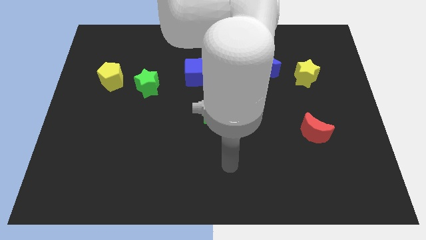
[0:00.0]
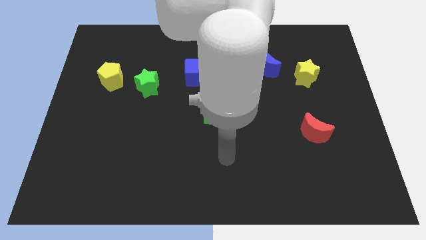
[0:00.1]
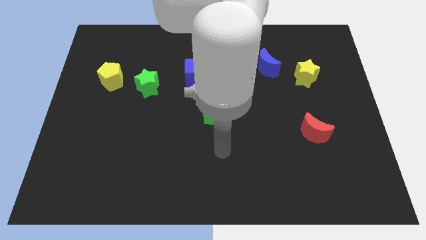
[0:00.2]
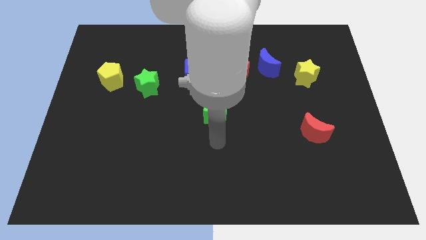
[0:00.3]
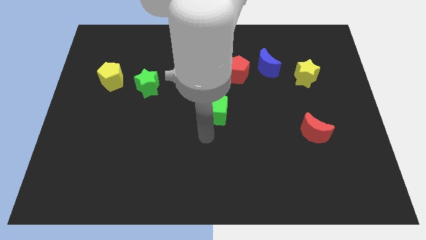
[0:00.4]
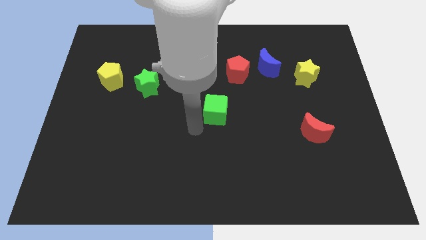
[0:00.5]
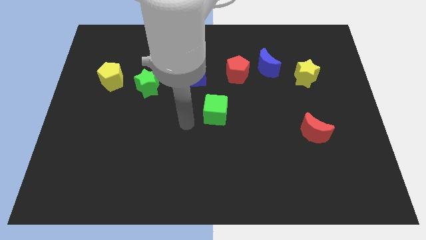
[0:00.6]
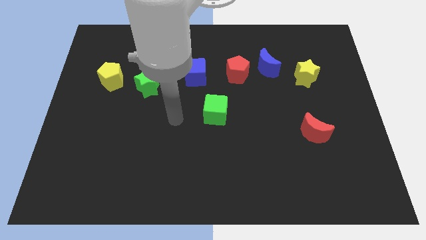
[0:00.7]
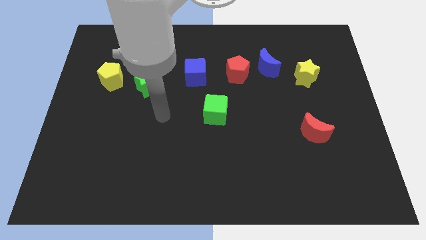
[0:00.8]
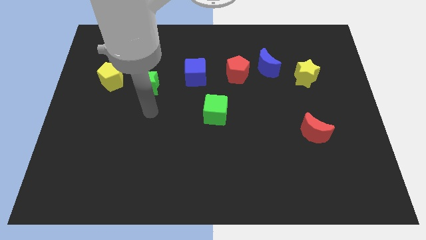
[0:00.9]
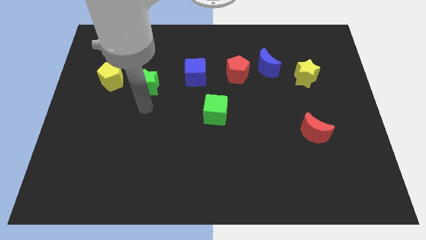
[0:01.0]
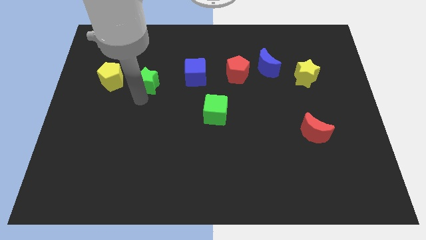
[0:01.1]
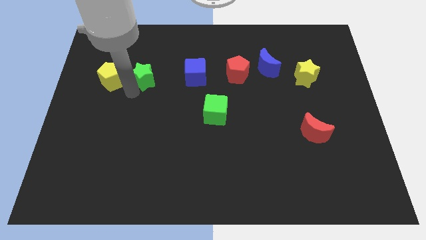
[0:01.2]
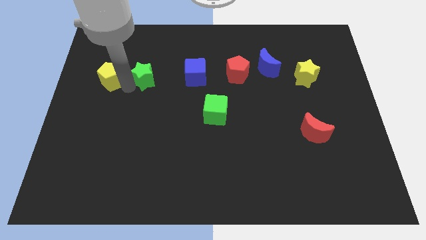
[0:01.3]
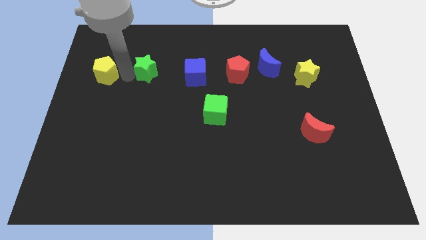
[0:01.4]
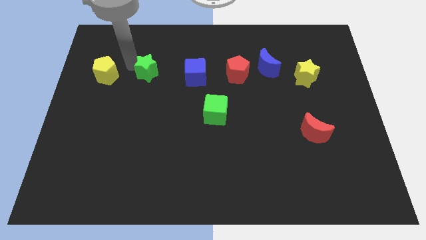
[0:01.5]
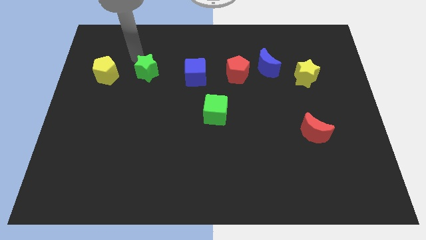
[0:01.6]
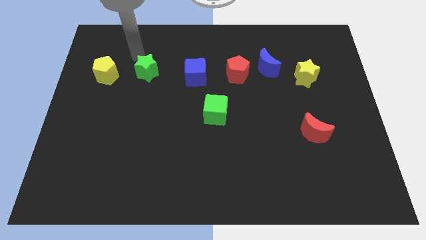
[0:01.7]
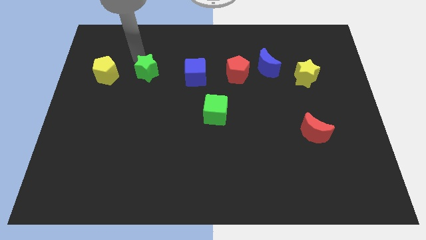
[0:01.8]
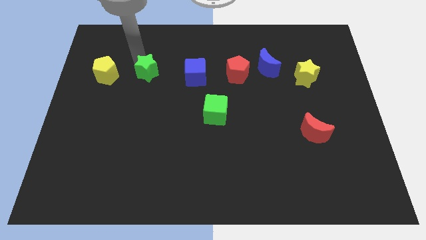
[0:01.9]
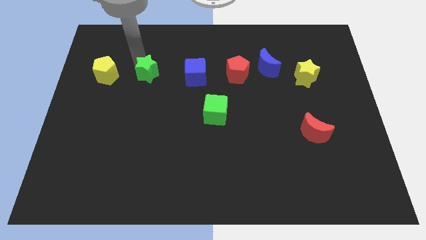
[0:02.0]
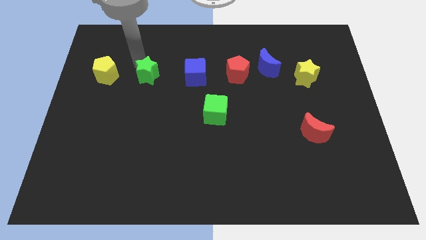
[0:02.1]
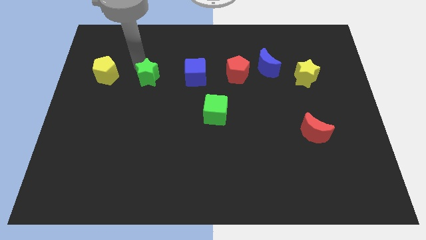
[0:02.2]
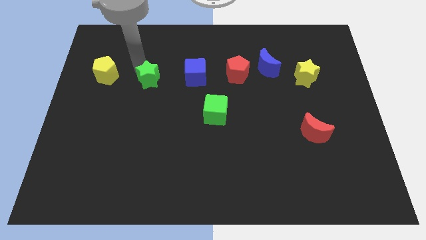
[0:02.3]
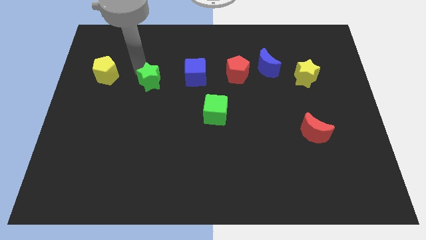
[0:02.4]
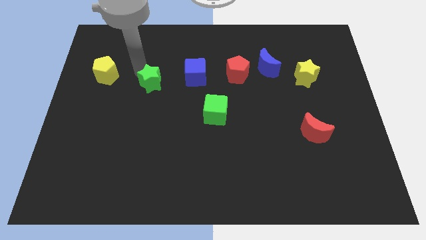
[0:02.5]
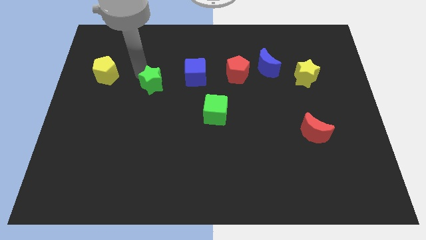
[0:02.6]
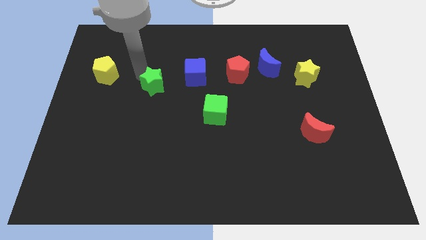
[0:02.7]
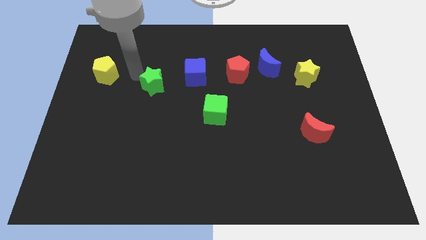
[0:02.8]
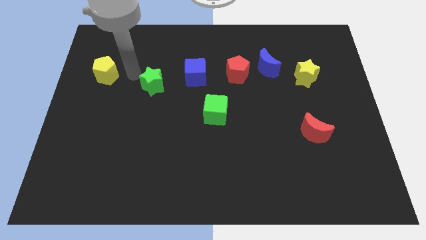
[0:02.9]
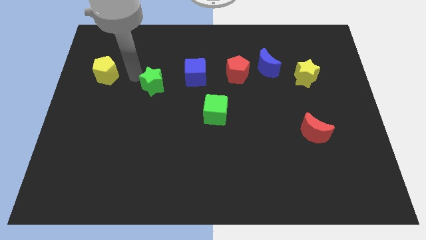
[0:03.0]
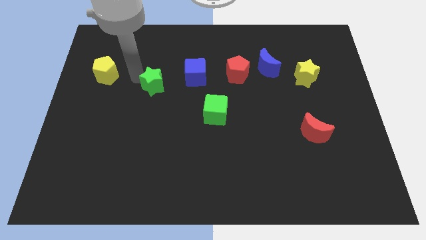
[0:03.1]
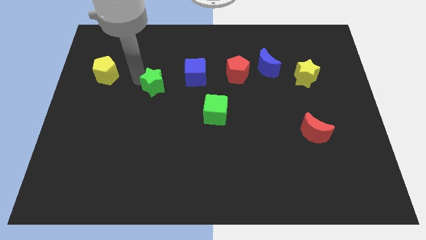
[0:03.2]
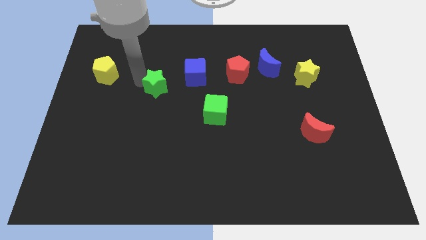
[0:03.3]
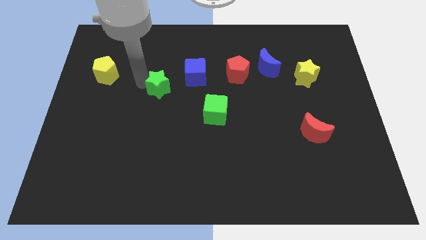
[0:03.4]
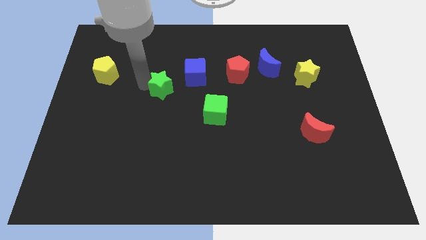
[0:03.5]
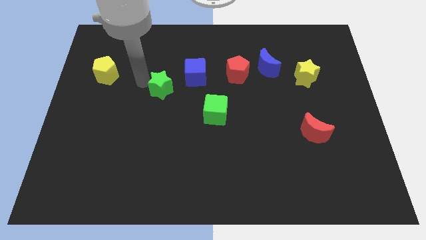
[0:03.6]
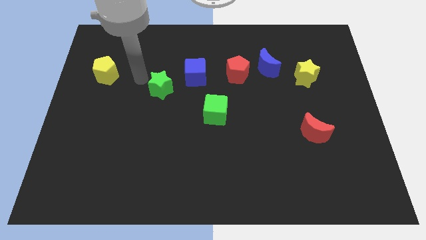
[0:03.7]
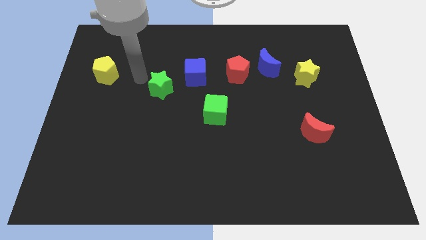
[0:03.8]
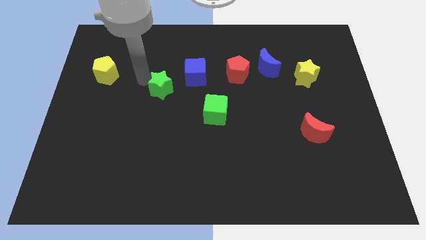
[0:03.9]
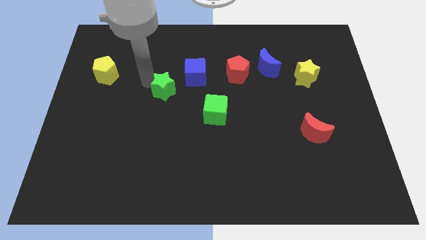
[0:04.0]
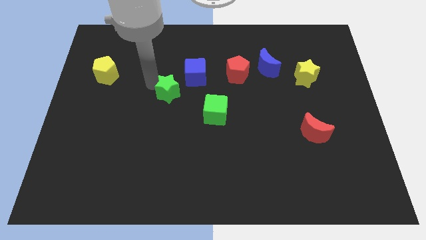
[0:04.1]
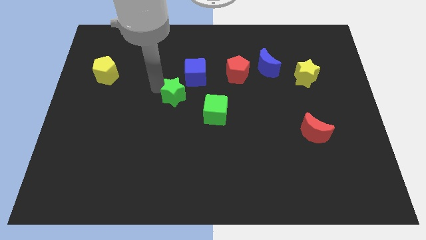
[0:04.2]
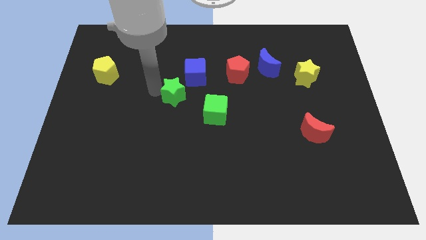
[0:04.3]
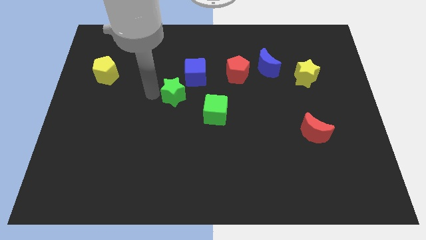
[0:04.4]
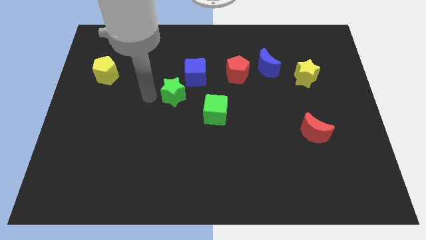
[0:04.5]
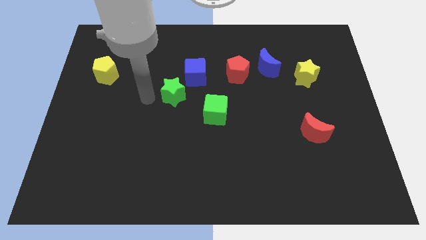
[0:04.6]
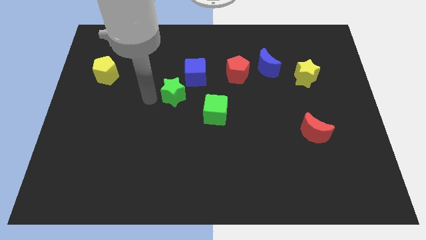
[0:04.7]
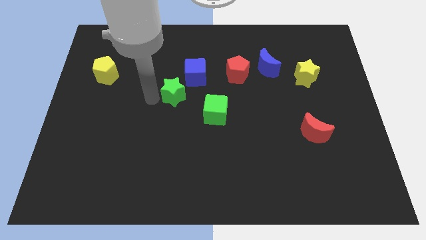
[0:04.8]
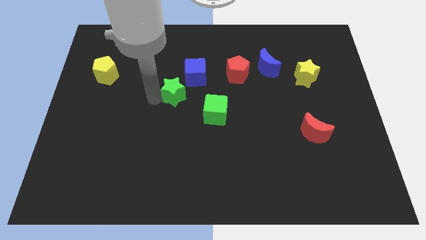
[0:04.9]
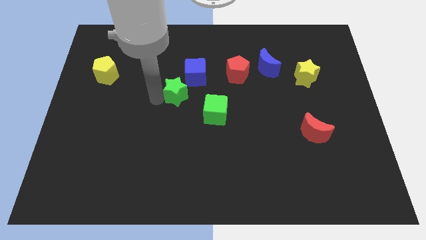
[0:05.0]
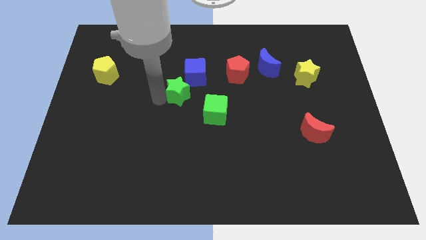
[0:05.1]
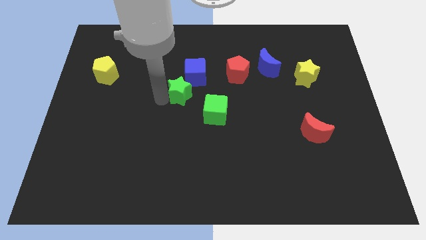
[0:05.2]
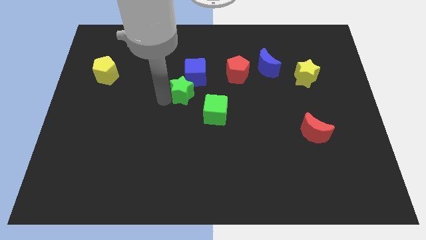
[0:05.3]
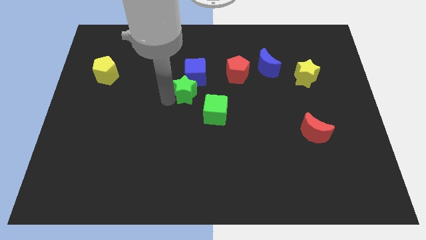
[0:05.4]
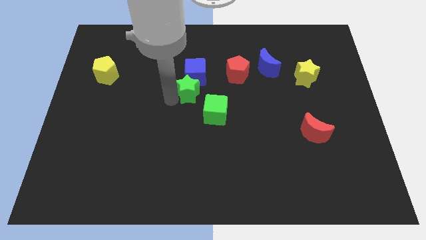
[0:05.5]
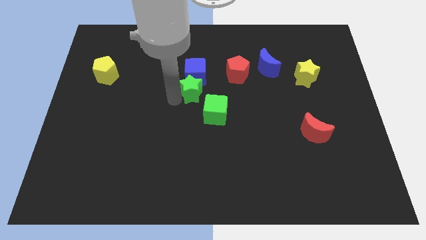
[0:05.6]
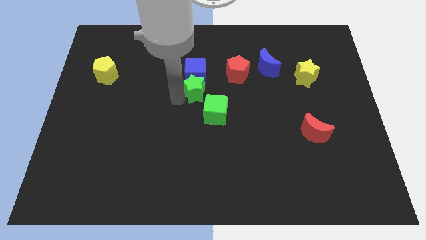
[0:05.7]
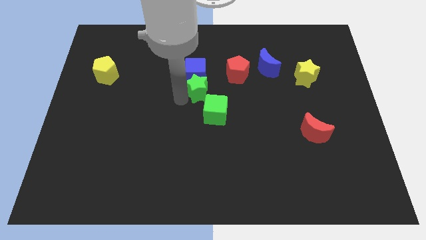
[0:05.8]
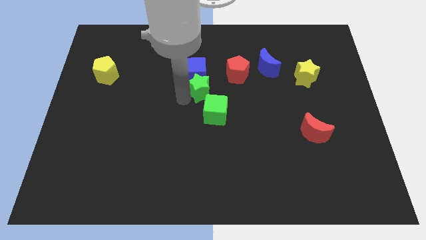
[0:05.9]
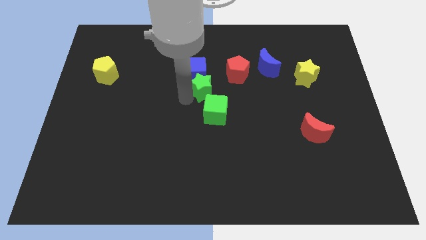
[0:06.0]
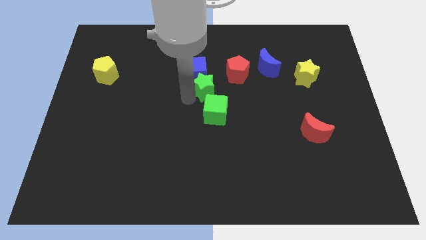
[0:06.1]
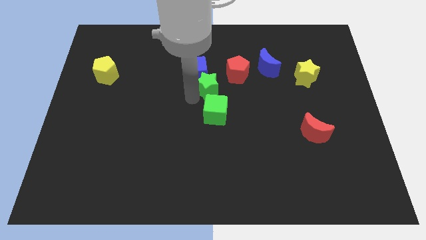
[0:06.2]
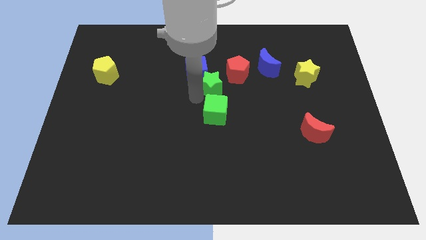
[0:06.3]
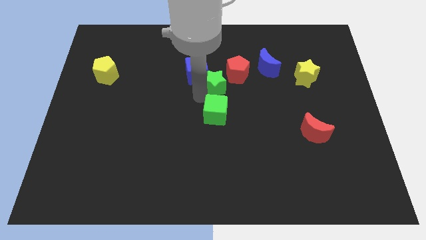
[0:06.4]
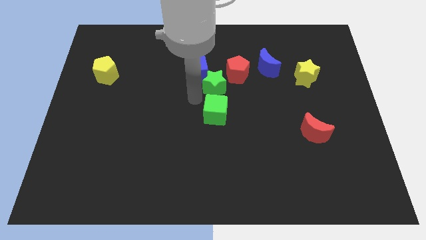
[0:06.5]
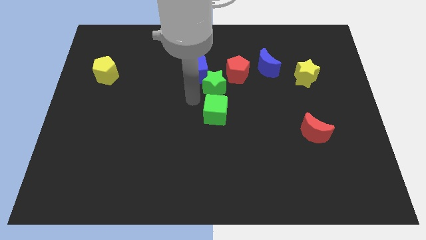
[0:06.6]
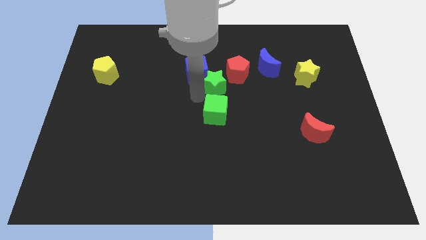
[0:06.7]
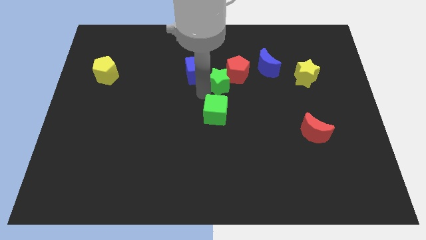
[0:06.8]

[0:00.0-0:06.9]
put the green star next to the red pentagon

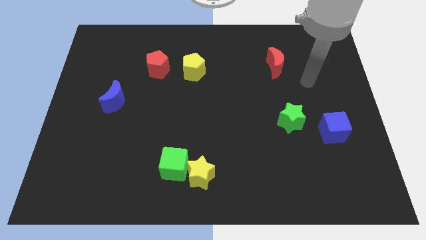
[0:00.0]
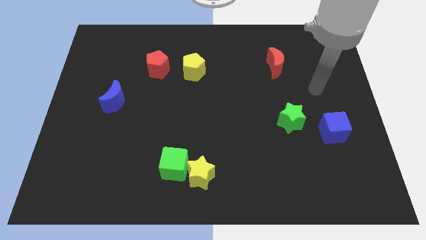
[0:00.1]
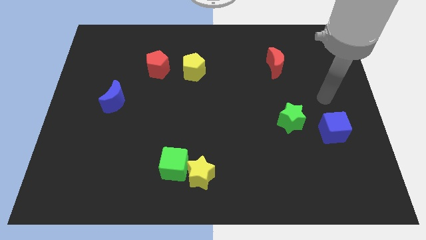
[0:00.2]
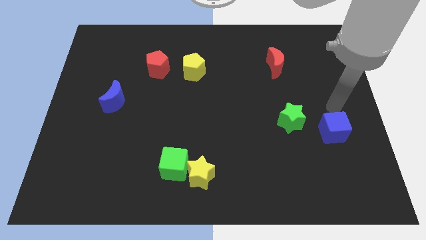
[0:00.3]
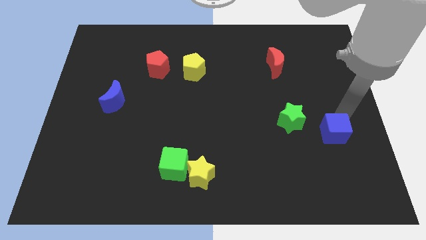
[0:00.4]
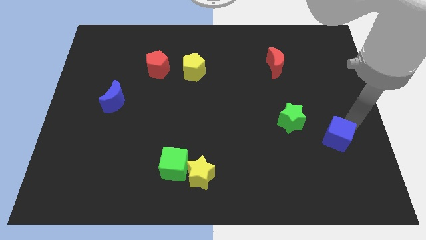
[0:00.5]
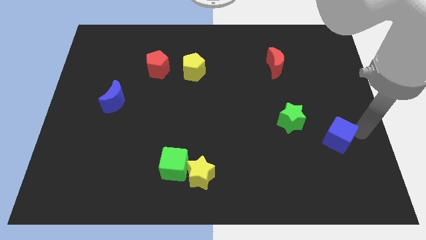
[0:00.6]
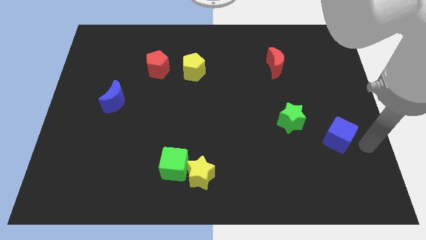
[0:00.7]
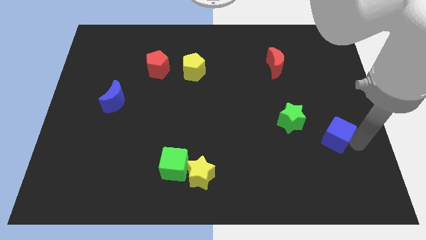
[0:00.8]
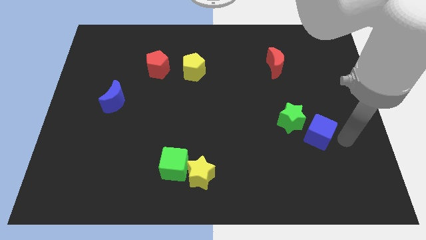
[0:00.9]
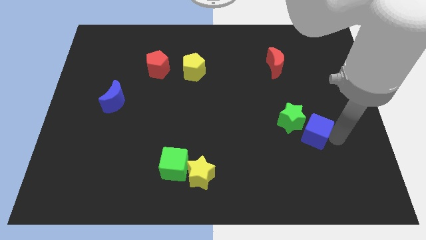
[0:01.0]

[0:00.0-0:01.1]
push the blue cube next to the green star
